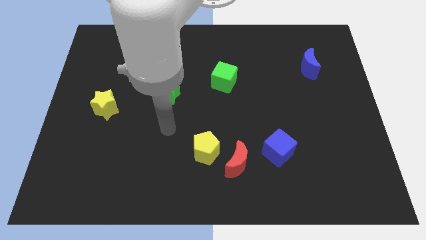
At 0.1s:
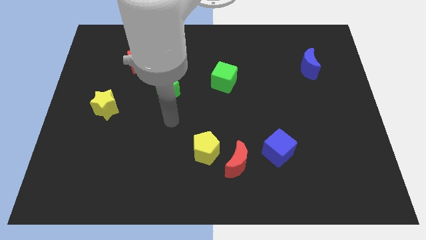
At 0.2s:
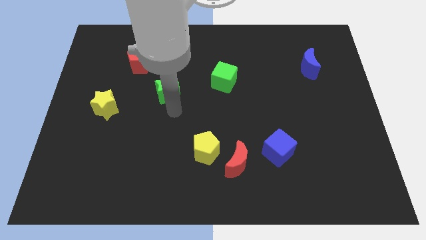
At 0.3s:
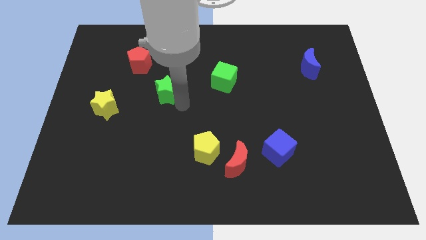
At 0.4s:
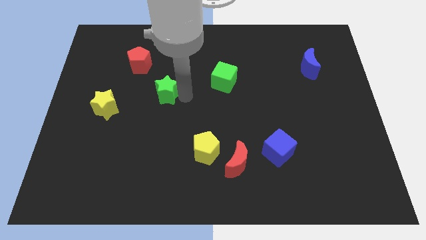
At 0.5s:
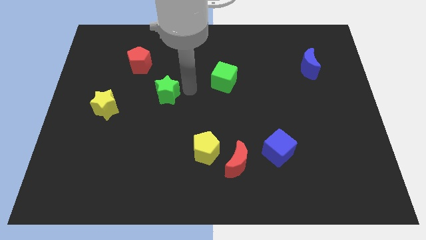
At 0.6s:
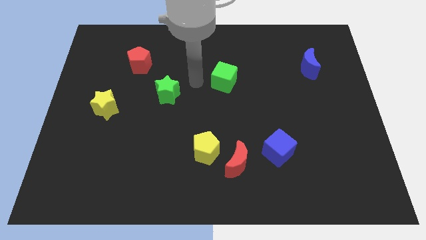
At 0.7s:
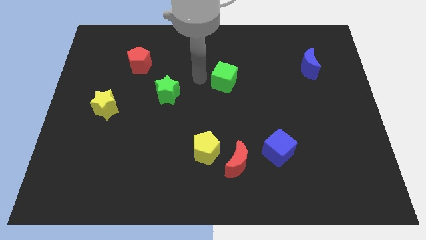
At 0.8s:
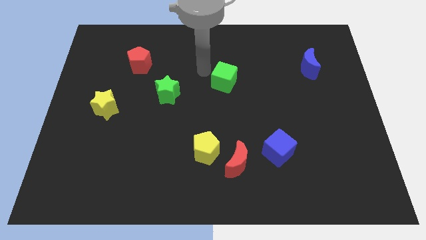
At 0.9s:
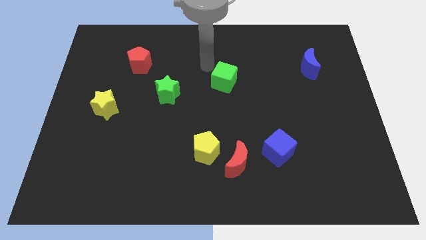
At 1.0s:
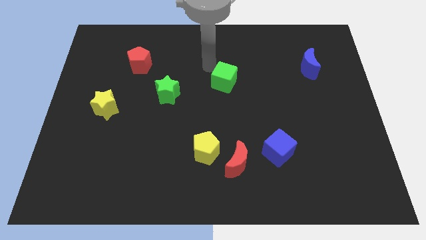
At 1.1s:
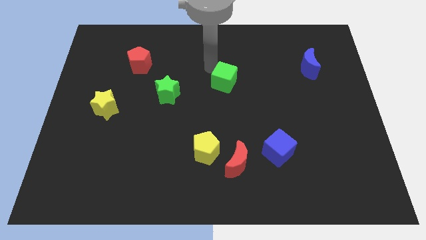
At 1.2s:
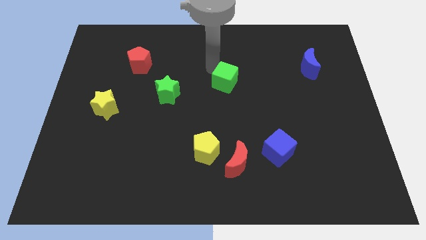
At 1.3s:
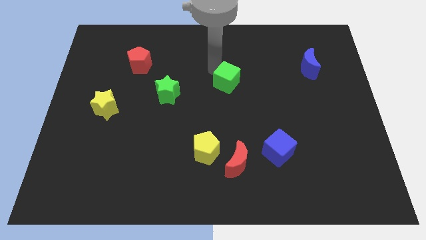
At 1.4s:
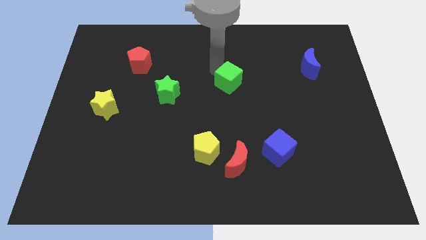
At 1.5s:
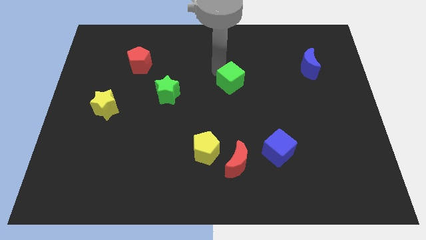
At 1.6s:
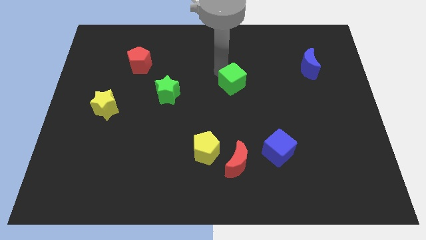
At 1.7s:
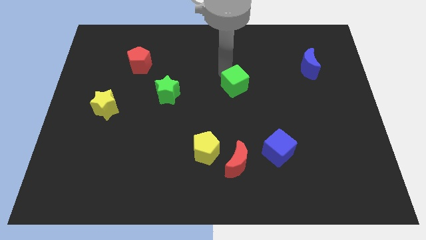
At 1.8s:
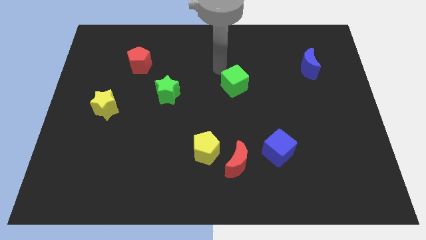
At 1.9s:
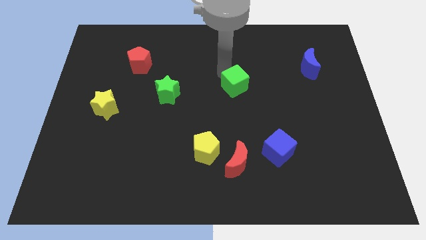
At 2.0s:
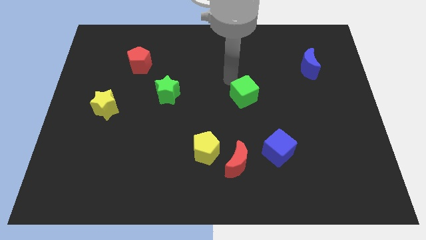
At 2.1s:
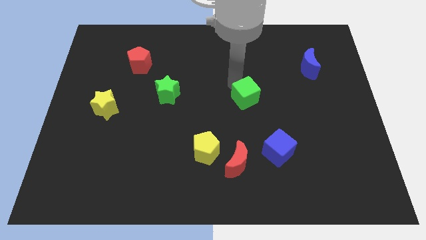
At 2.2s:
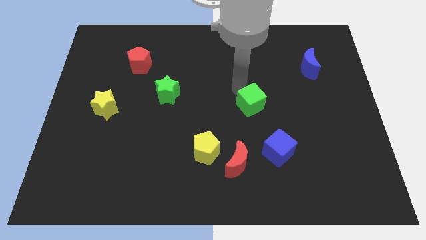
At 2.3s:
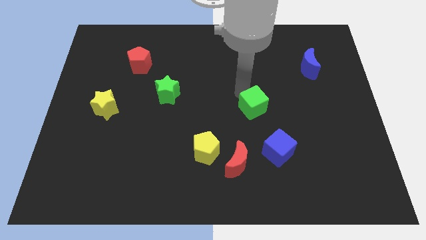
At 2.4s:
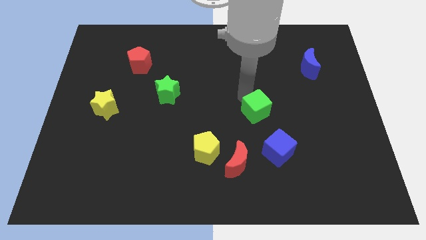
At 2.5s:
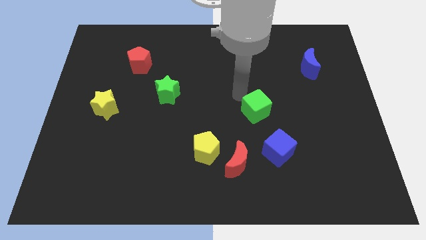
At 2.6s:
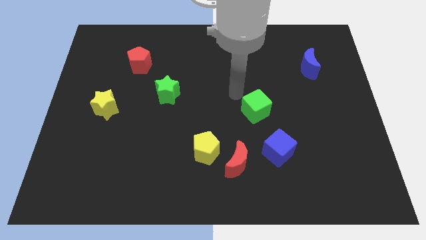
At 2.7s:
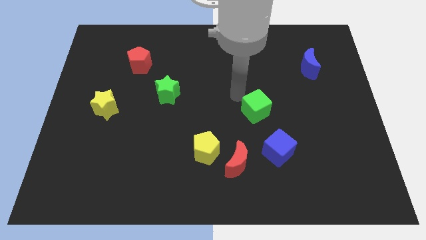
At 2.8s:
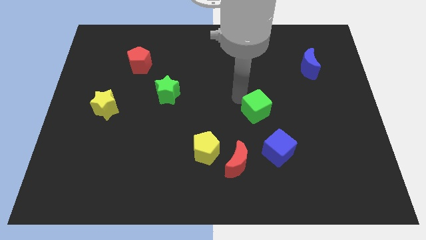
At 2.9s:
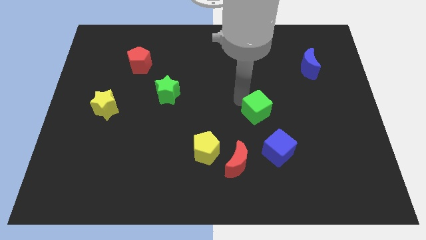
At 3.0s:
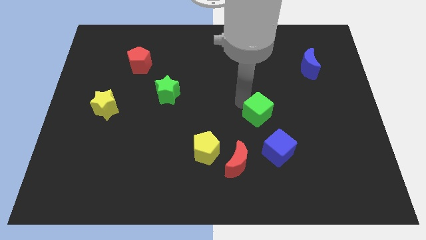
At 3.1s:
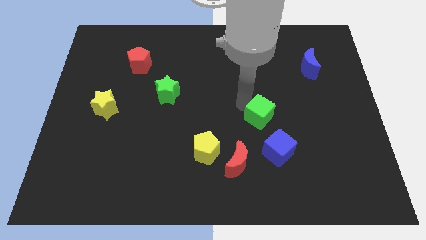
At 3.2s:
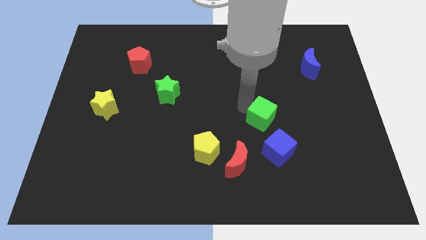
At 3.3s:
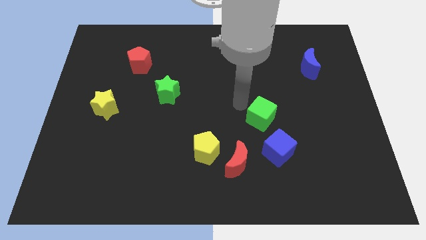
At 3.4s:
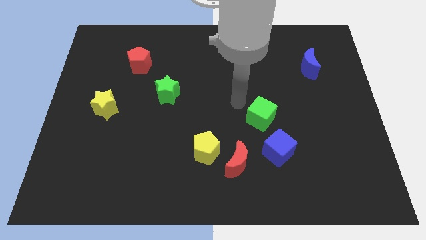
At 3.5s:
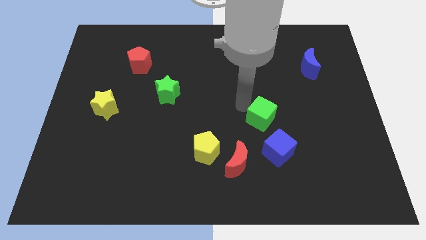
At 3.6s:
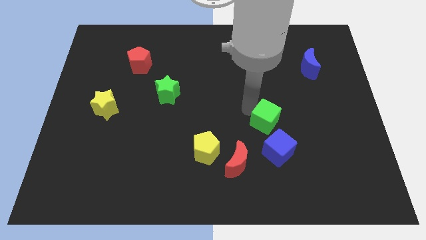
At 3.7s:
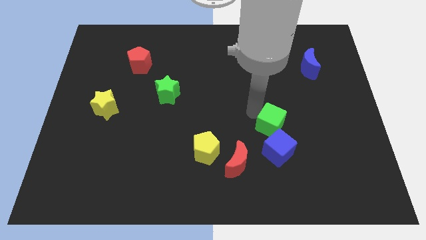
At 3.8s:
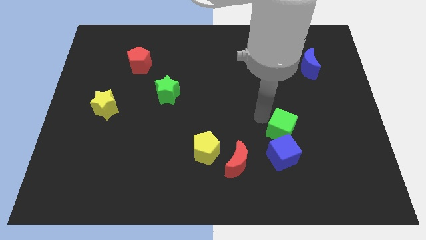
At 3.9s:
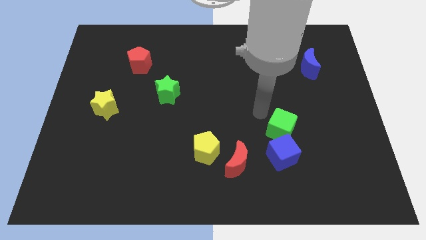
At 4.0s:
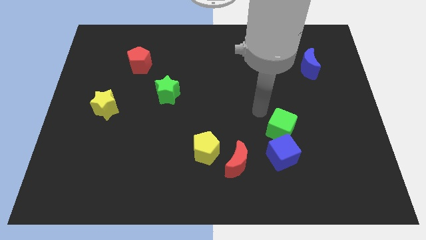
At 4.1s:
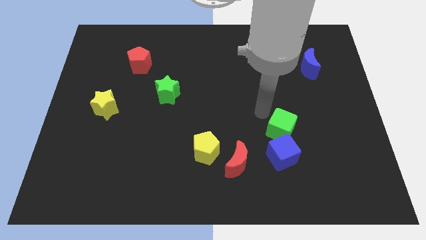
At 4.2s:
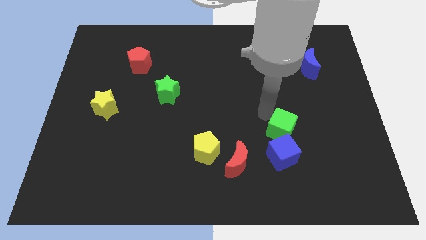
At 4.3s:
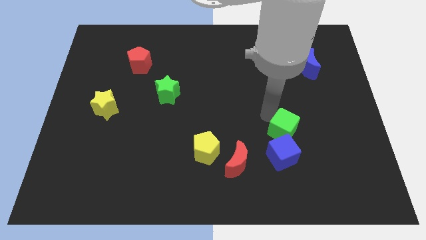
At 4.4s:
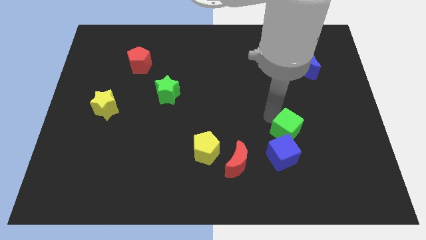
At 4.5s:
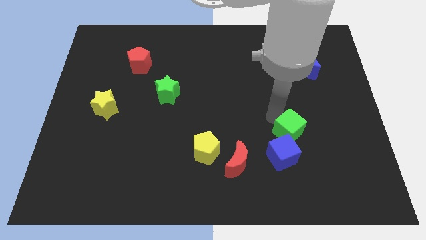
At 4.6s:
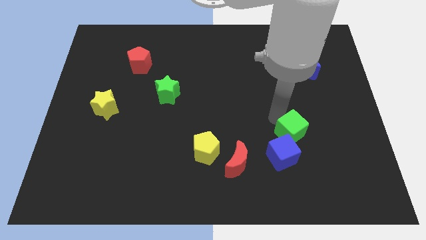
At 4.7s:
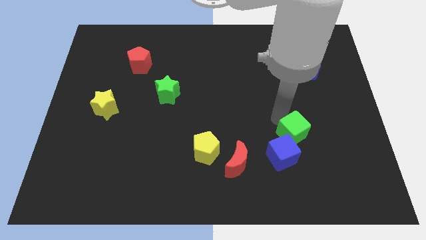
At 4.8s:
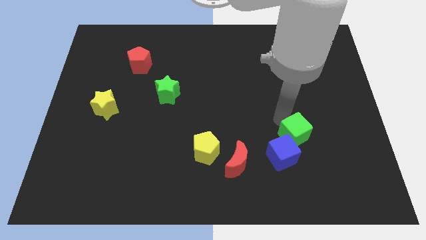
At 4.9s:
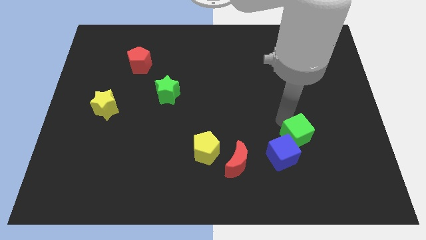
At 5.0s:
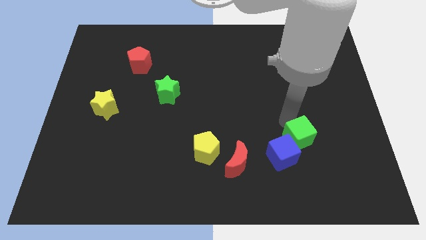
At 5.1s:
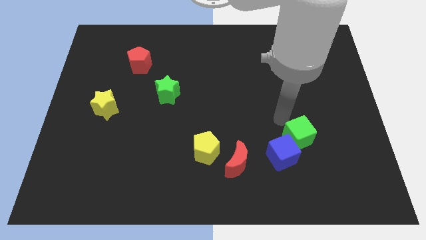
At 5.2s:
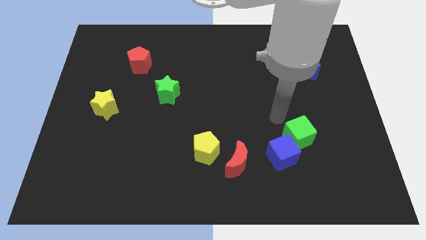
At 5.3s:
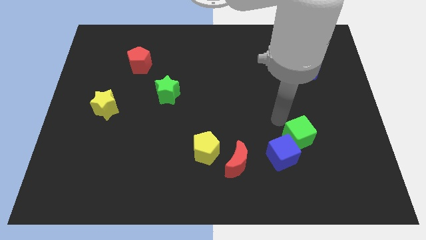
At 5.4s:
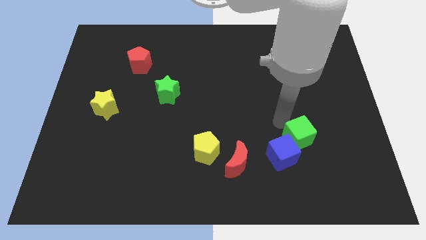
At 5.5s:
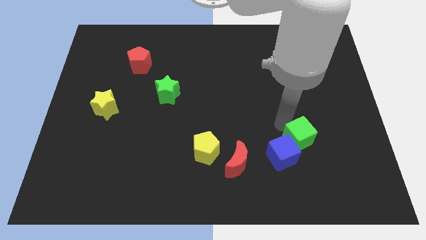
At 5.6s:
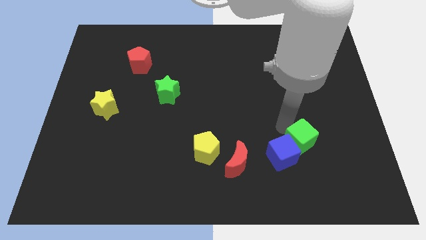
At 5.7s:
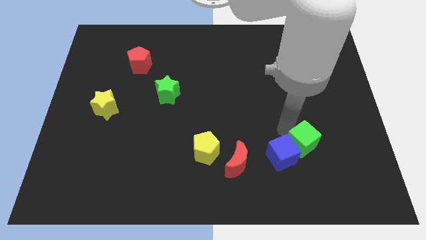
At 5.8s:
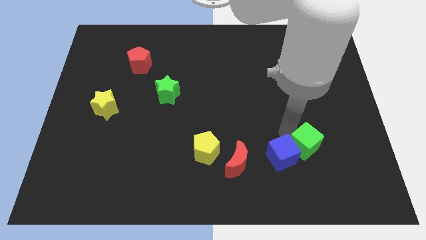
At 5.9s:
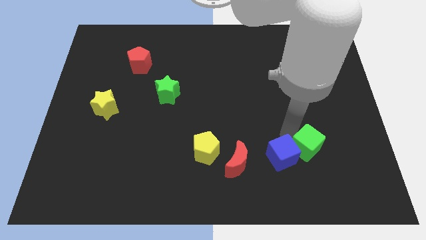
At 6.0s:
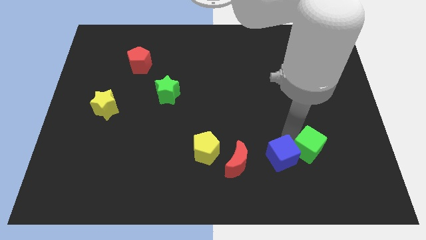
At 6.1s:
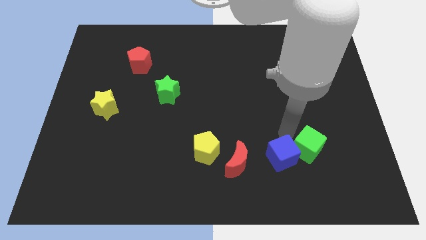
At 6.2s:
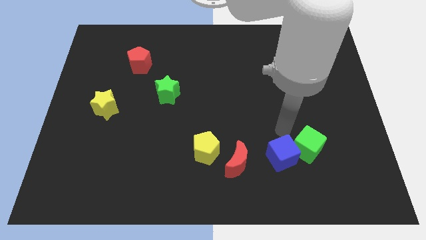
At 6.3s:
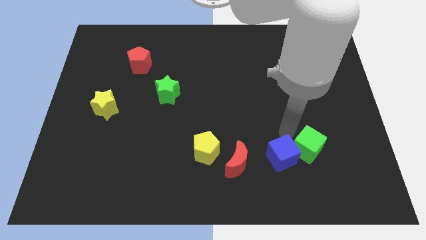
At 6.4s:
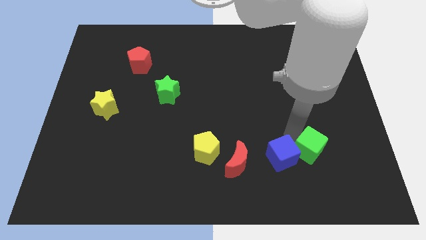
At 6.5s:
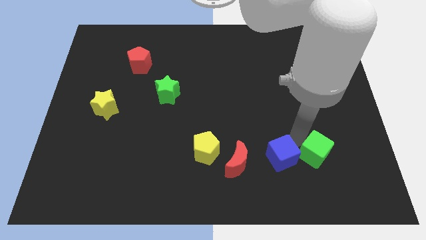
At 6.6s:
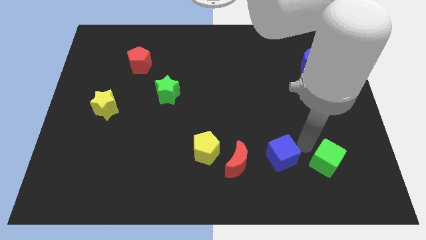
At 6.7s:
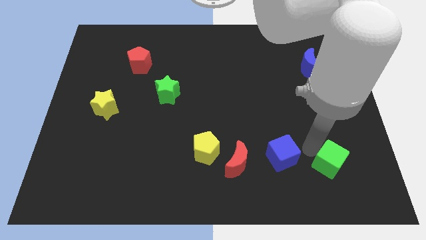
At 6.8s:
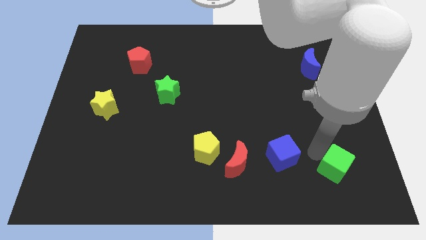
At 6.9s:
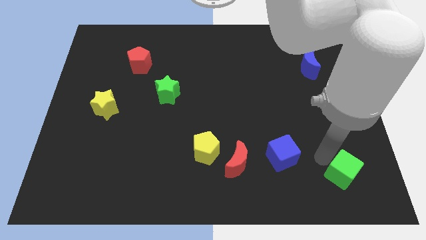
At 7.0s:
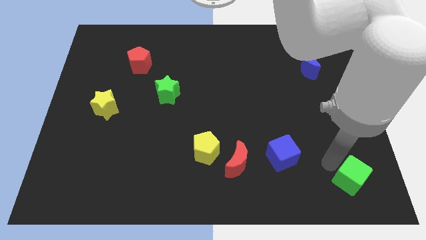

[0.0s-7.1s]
push the green cube to the bottom right of the board

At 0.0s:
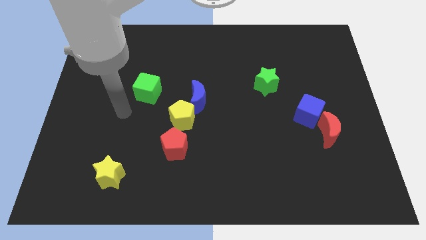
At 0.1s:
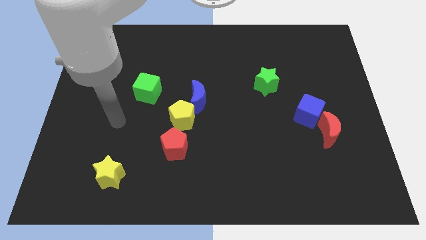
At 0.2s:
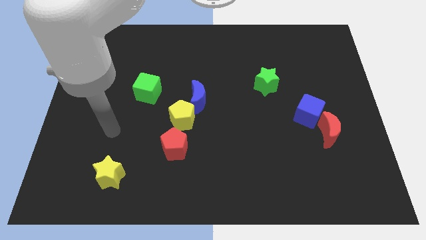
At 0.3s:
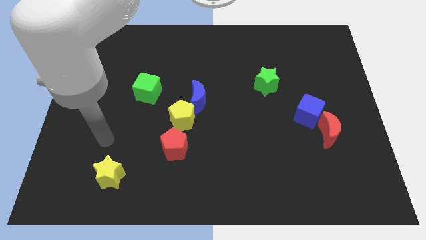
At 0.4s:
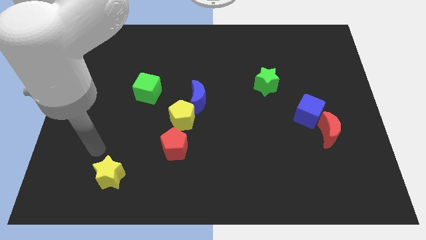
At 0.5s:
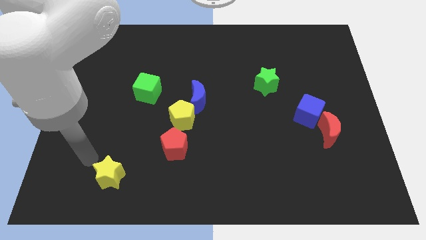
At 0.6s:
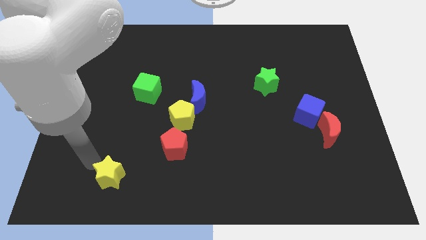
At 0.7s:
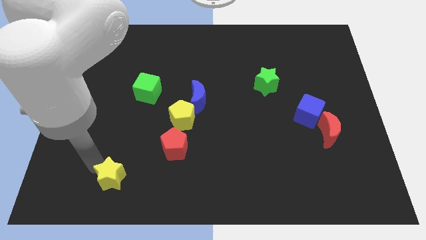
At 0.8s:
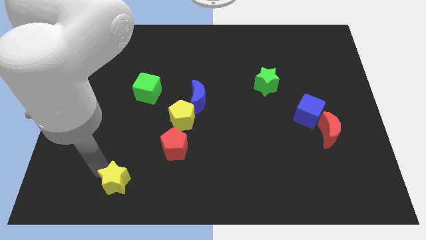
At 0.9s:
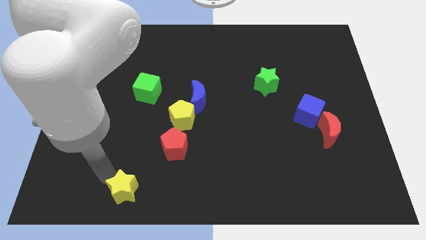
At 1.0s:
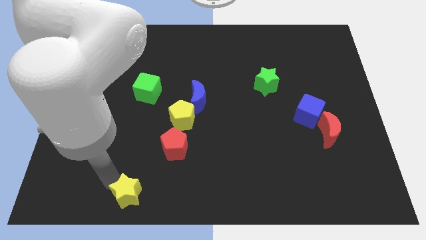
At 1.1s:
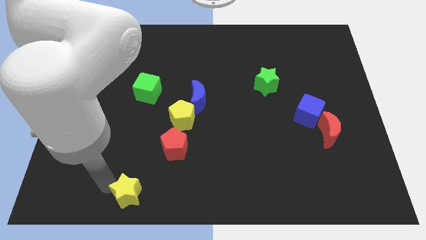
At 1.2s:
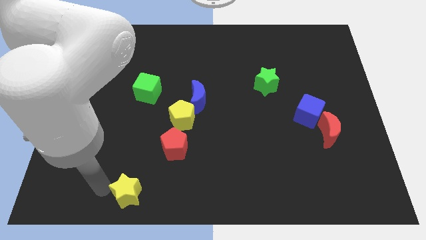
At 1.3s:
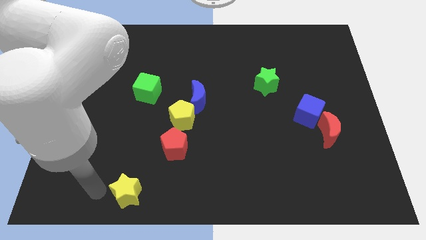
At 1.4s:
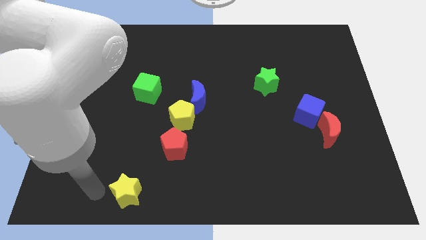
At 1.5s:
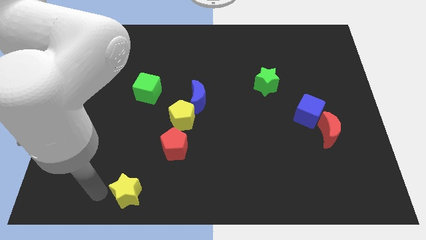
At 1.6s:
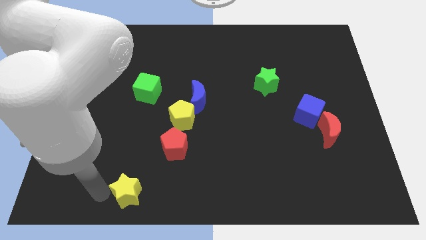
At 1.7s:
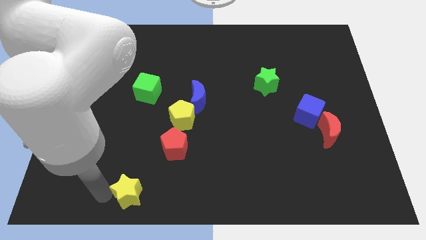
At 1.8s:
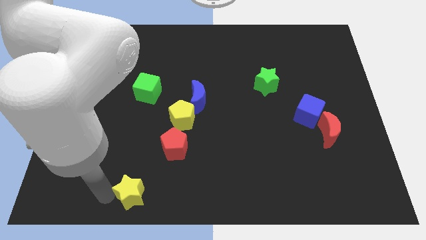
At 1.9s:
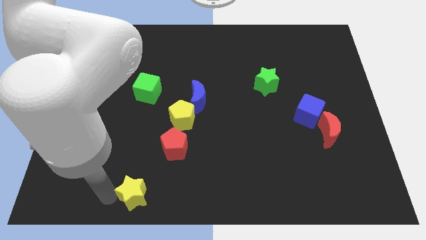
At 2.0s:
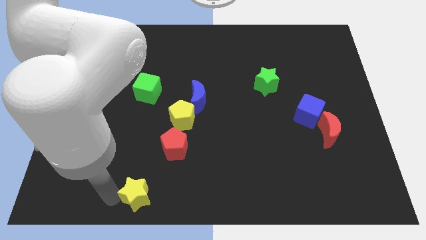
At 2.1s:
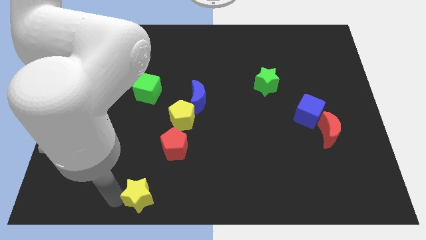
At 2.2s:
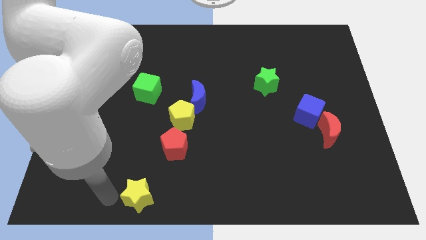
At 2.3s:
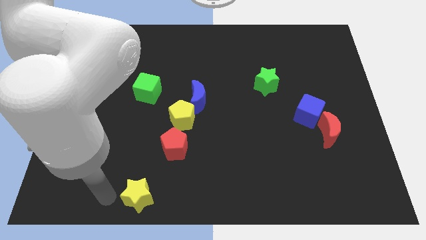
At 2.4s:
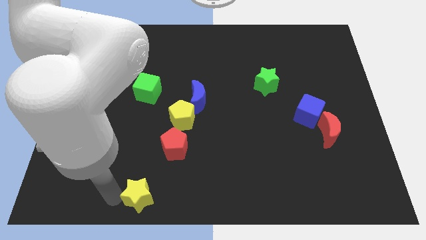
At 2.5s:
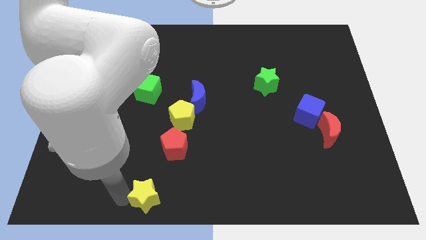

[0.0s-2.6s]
move the yellow star to the bottom side
